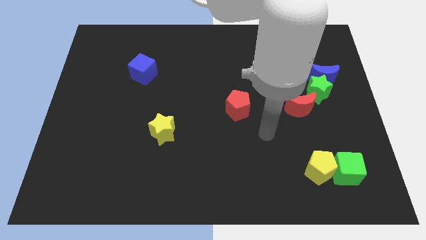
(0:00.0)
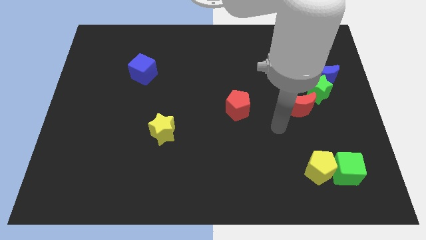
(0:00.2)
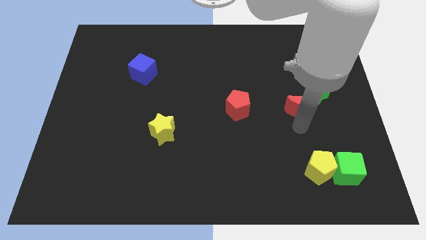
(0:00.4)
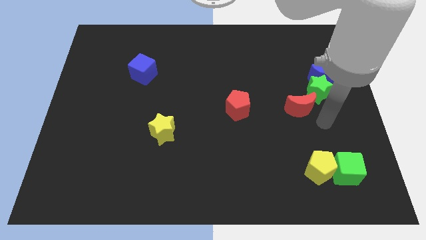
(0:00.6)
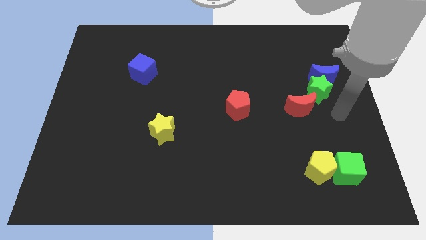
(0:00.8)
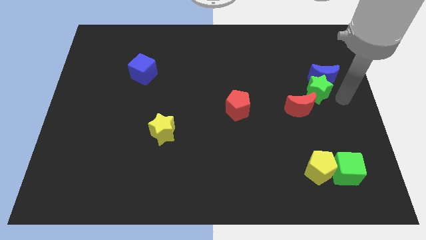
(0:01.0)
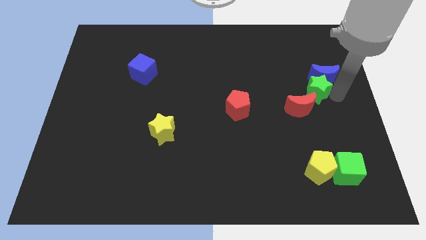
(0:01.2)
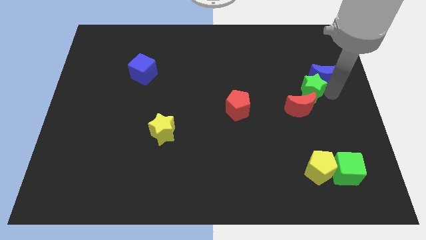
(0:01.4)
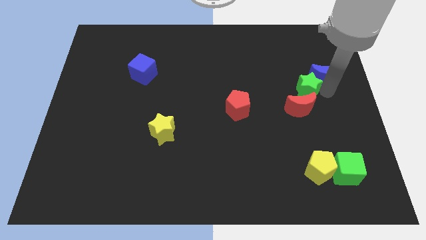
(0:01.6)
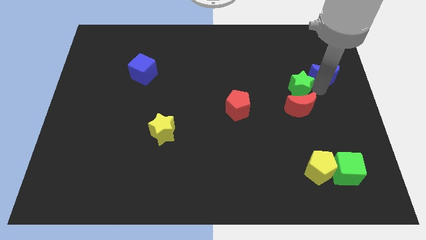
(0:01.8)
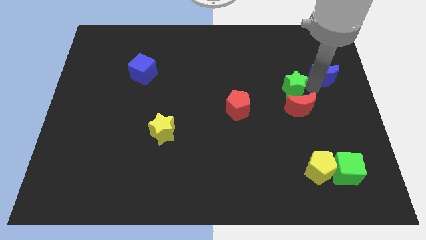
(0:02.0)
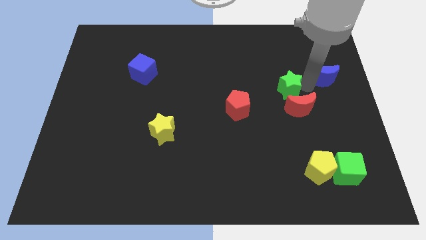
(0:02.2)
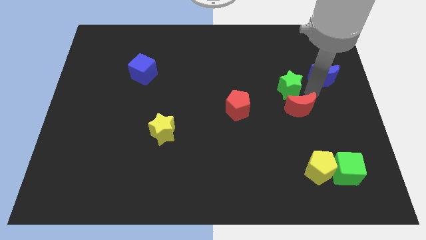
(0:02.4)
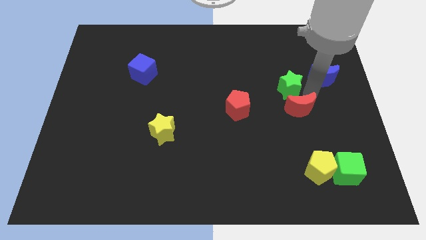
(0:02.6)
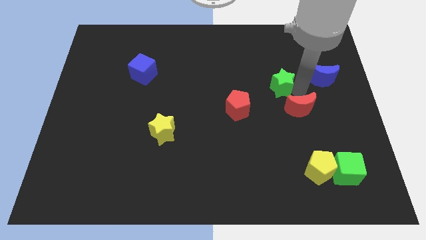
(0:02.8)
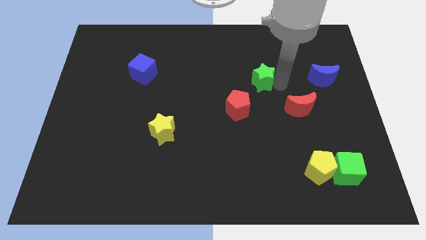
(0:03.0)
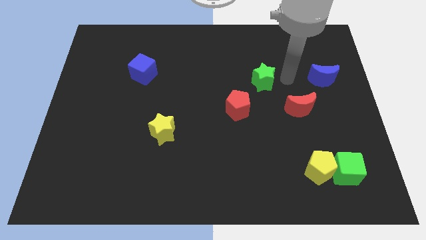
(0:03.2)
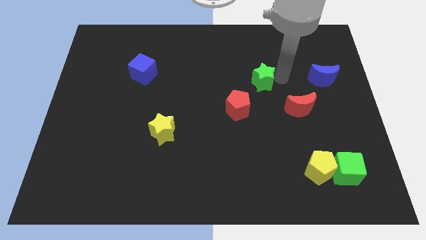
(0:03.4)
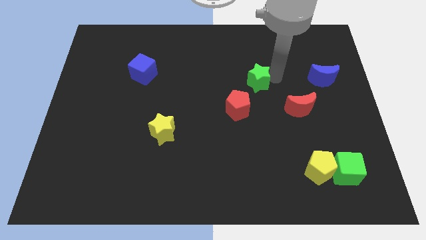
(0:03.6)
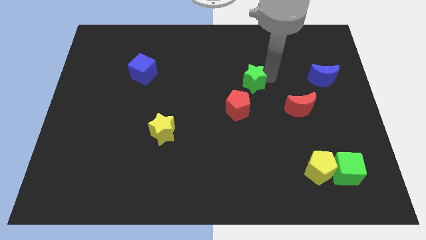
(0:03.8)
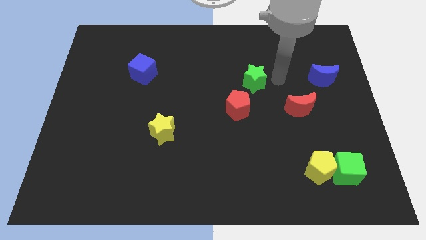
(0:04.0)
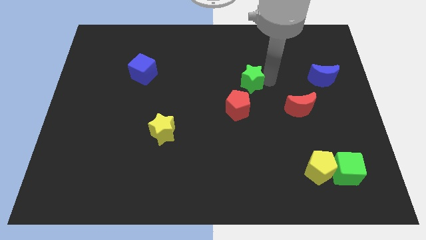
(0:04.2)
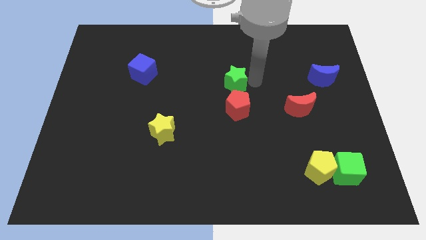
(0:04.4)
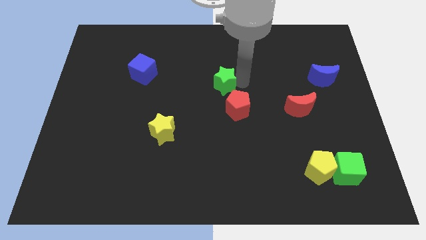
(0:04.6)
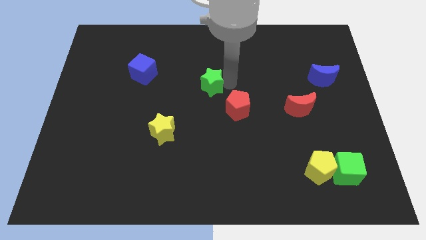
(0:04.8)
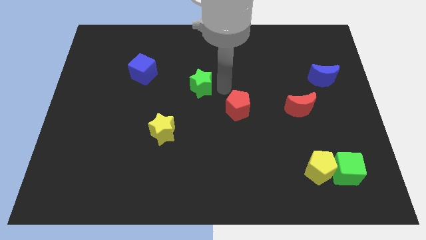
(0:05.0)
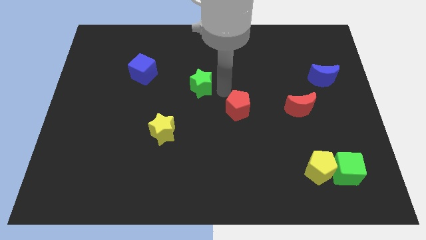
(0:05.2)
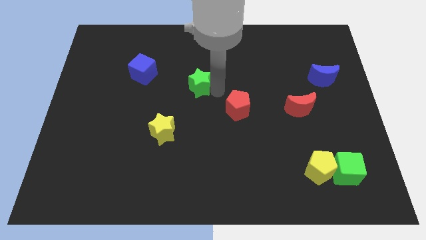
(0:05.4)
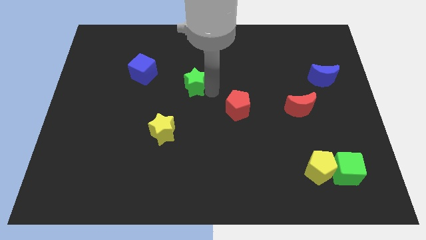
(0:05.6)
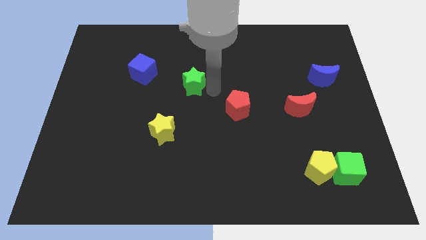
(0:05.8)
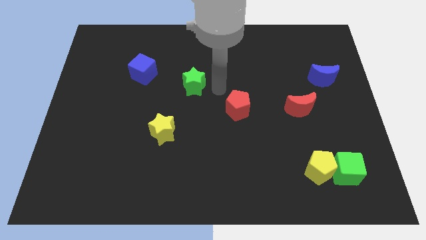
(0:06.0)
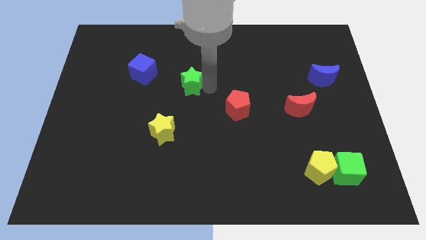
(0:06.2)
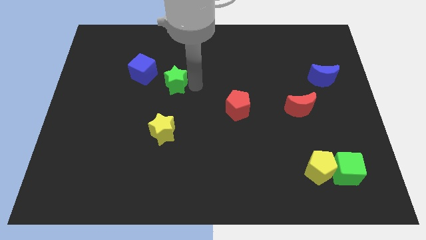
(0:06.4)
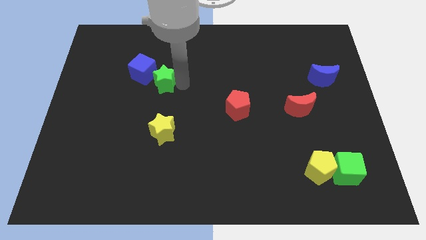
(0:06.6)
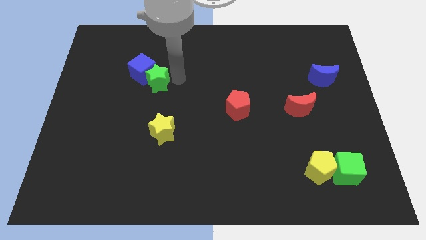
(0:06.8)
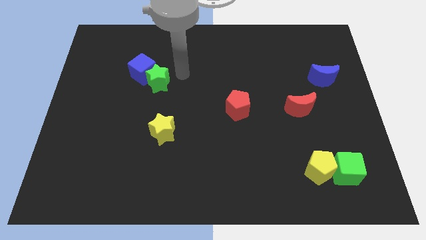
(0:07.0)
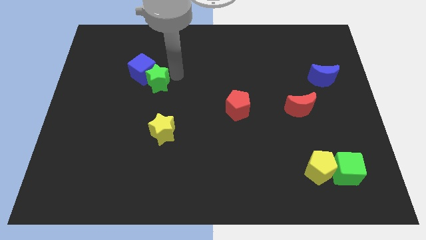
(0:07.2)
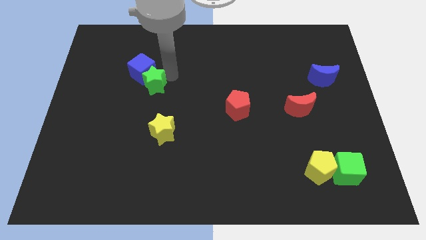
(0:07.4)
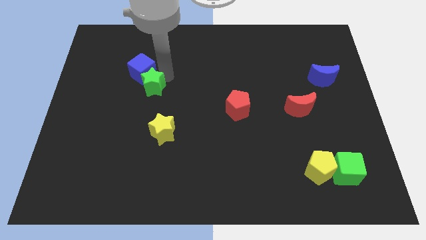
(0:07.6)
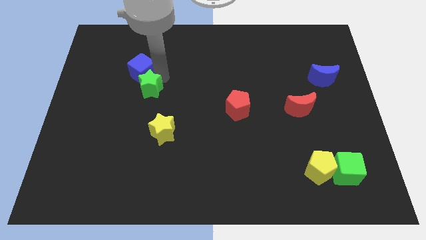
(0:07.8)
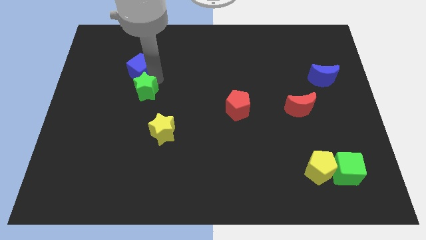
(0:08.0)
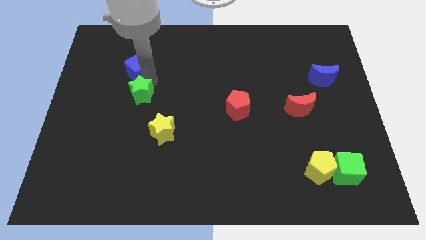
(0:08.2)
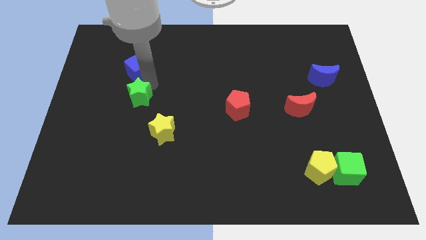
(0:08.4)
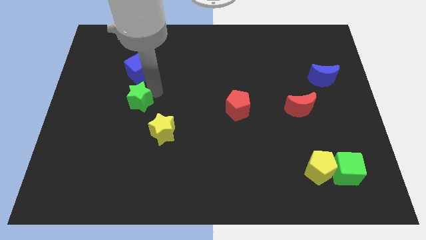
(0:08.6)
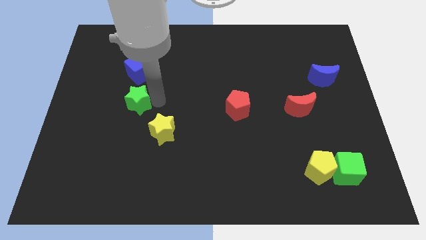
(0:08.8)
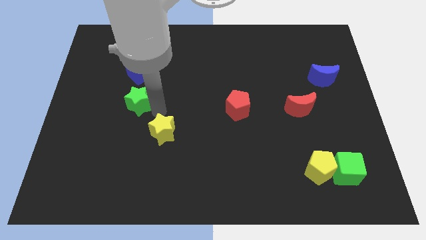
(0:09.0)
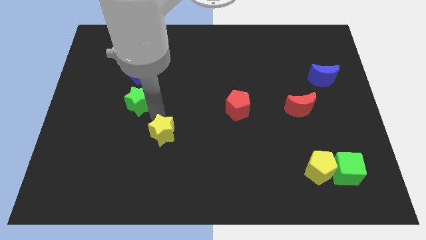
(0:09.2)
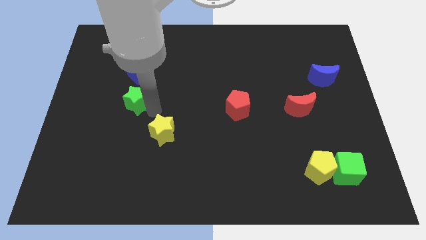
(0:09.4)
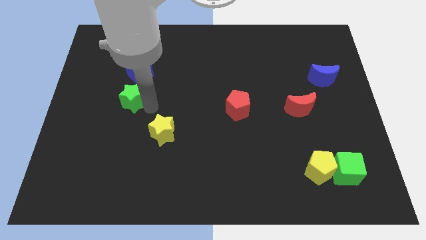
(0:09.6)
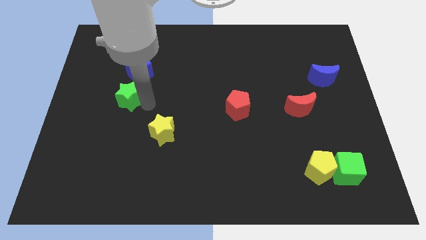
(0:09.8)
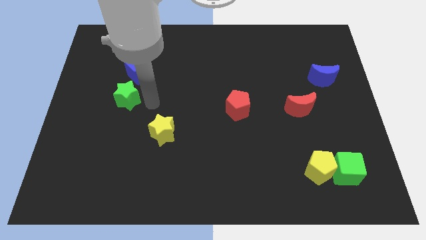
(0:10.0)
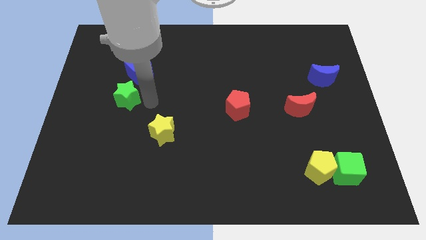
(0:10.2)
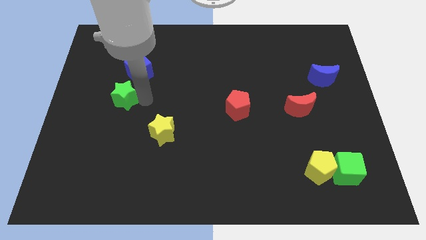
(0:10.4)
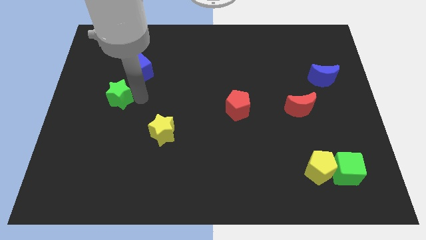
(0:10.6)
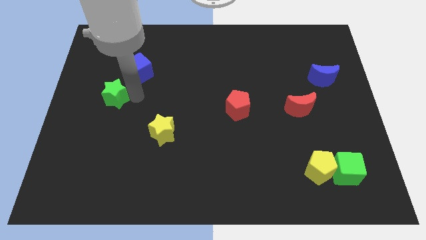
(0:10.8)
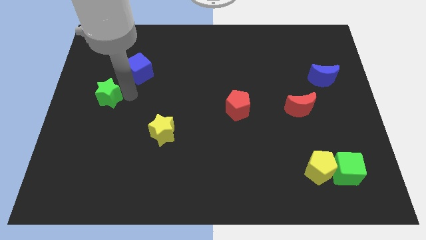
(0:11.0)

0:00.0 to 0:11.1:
push the green star to the center left

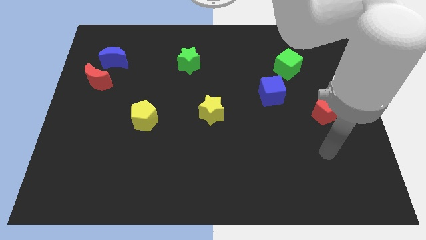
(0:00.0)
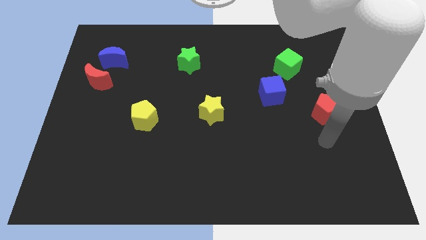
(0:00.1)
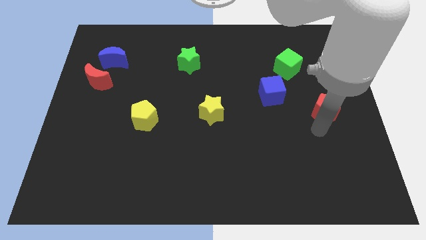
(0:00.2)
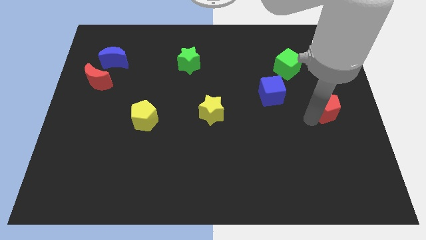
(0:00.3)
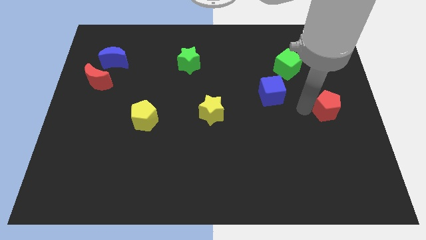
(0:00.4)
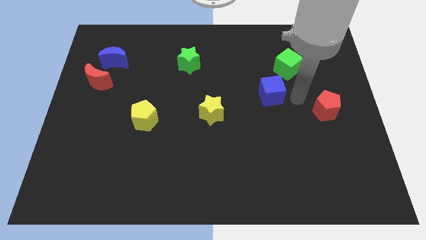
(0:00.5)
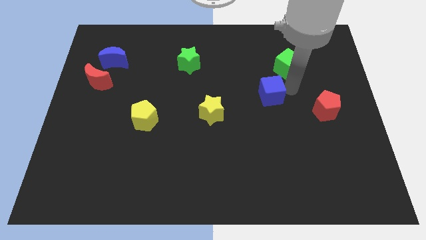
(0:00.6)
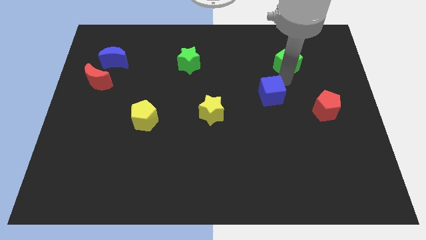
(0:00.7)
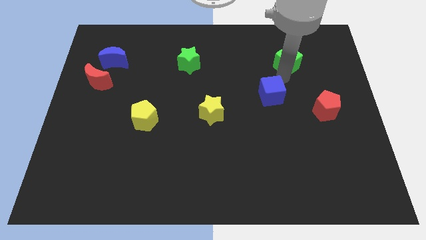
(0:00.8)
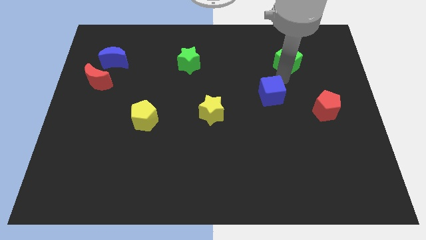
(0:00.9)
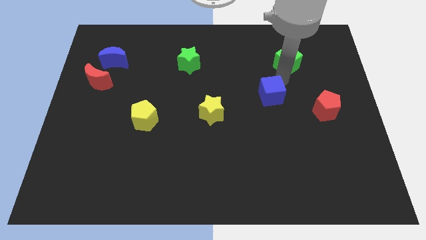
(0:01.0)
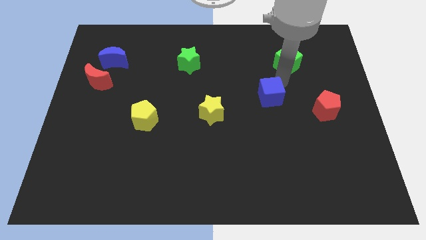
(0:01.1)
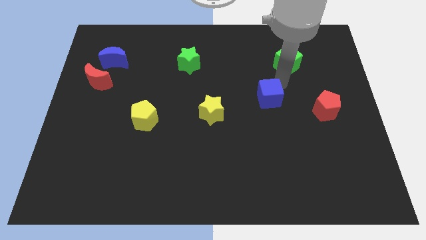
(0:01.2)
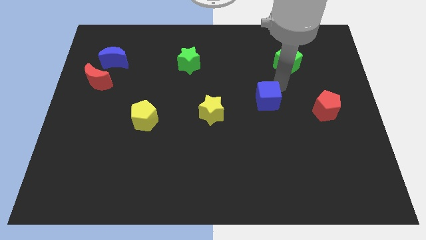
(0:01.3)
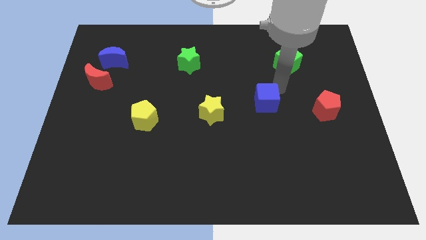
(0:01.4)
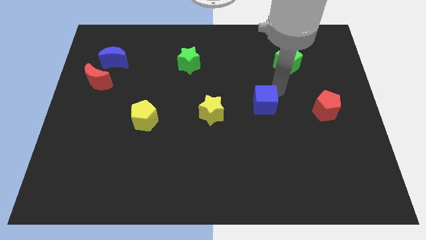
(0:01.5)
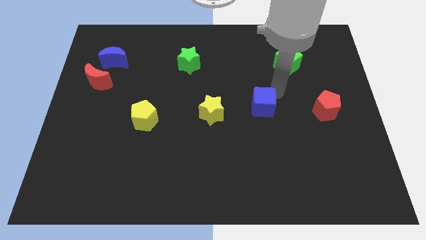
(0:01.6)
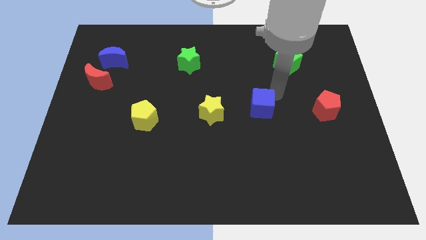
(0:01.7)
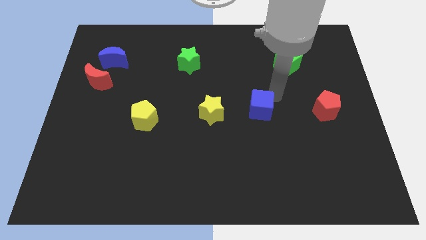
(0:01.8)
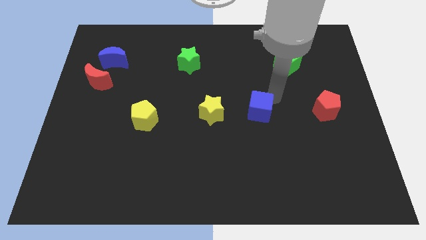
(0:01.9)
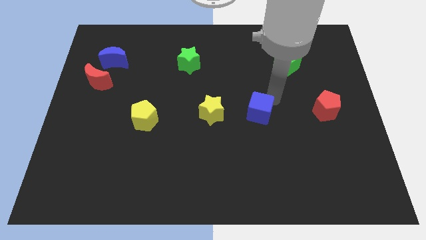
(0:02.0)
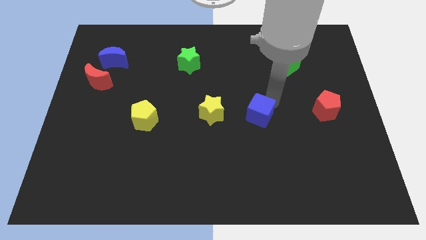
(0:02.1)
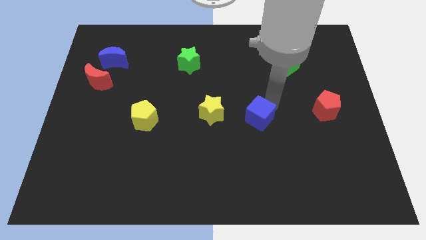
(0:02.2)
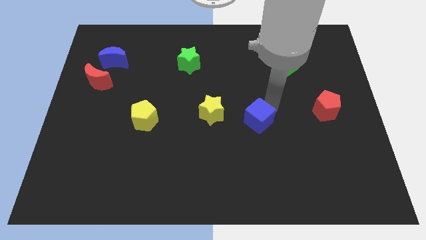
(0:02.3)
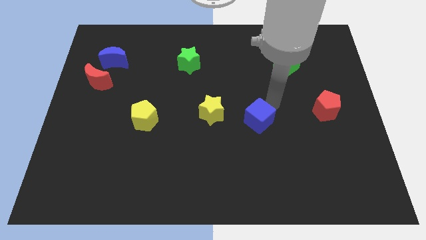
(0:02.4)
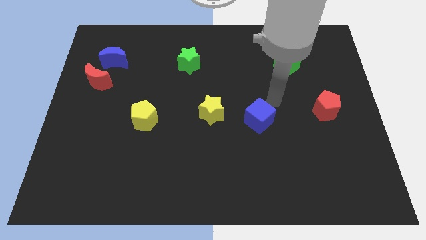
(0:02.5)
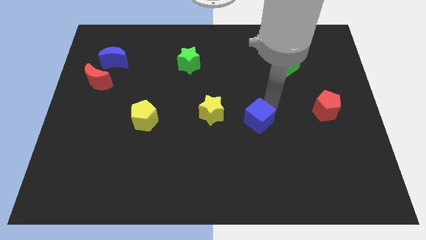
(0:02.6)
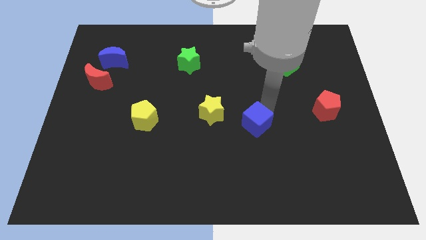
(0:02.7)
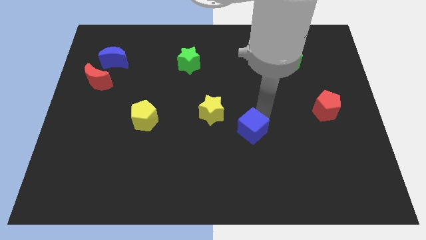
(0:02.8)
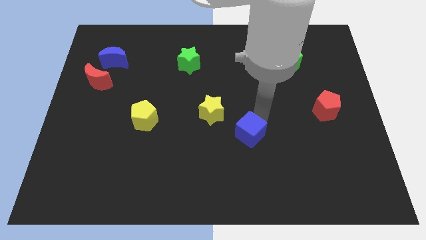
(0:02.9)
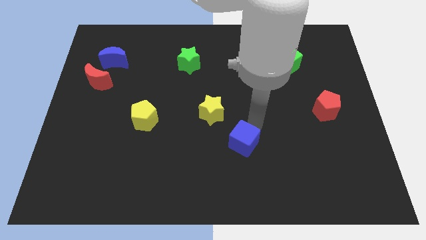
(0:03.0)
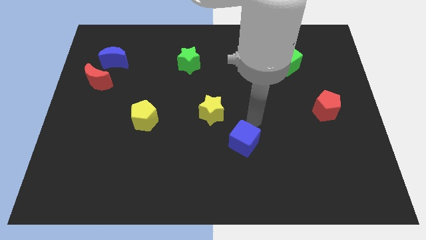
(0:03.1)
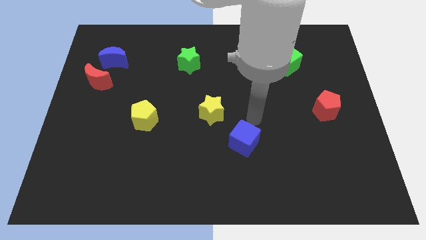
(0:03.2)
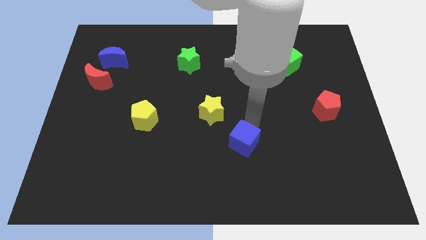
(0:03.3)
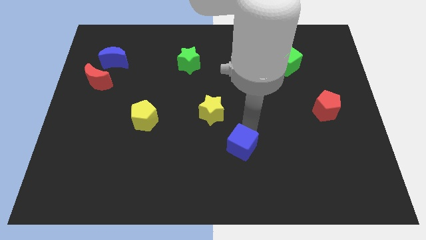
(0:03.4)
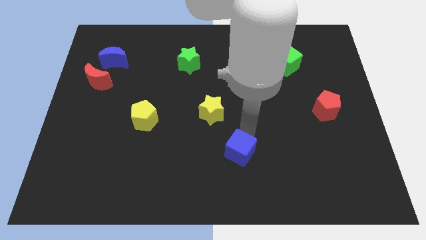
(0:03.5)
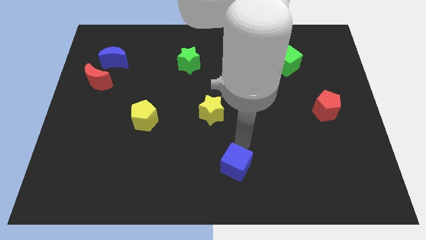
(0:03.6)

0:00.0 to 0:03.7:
put the blue cube to the bottom side
